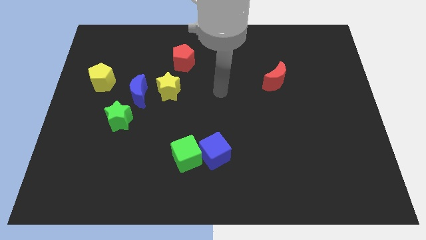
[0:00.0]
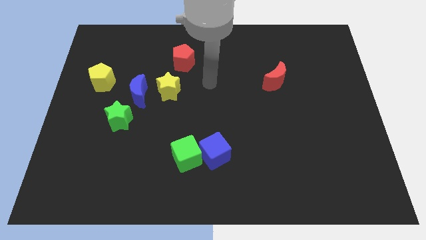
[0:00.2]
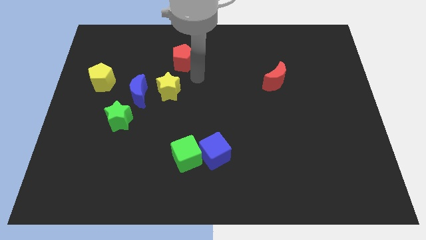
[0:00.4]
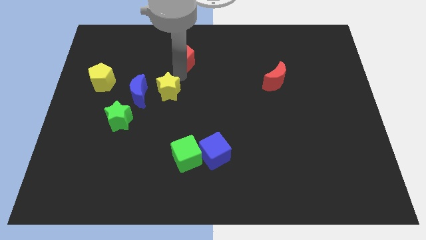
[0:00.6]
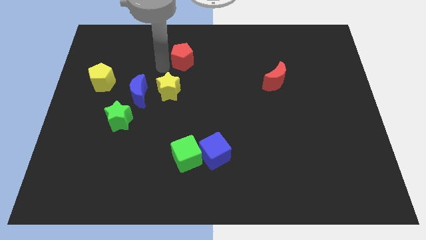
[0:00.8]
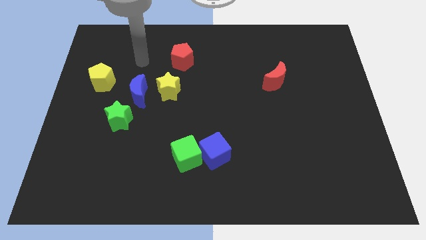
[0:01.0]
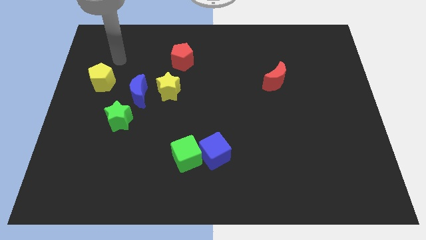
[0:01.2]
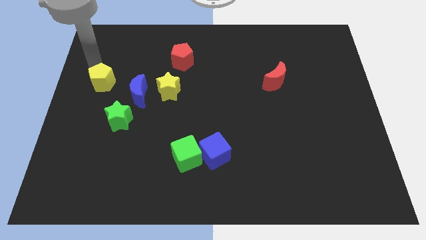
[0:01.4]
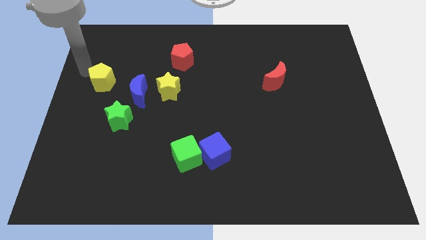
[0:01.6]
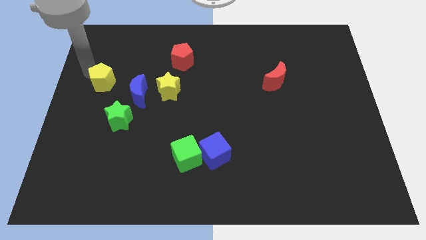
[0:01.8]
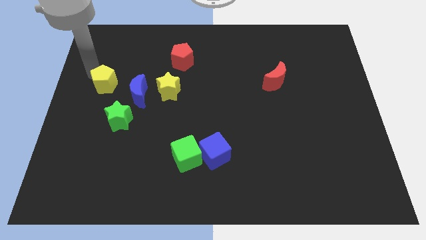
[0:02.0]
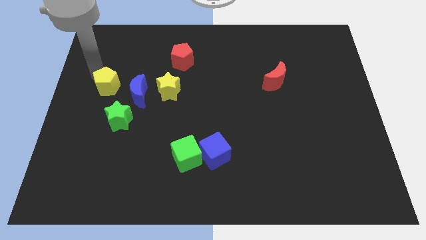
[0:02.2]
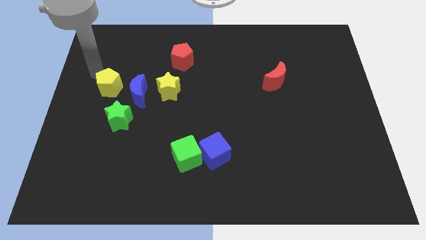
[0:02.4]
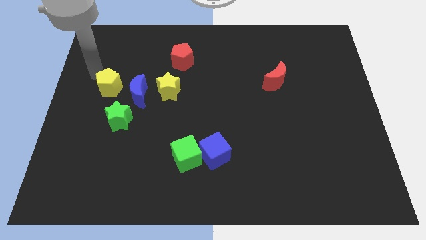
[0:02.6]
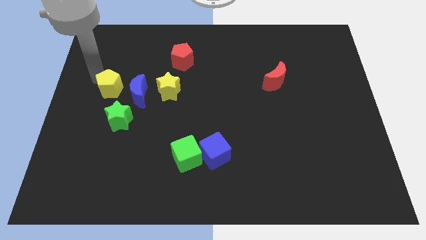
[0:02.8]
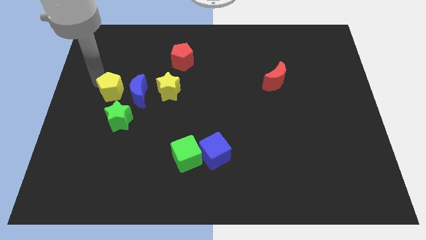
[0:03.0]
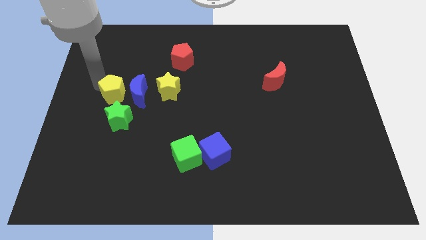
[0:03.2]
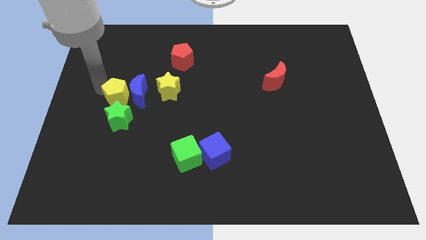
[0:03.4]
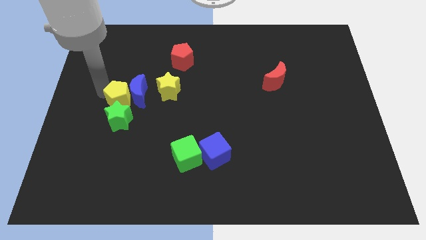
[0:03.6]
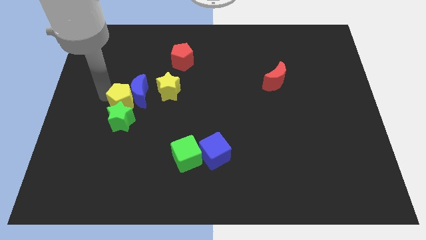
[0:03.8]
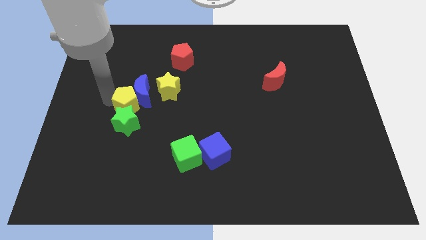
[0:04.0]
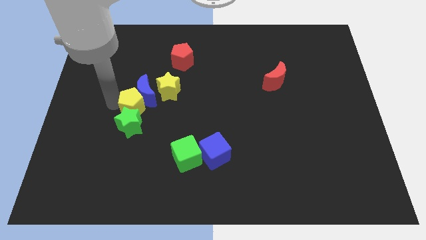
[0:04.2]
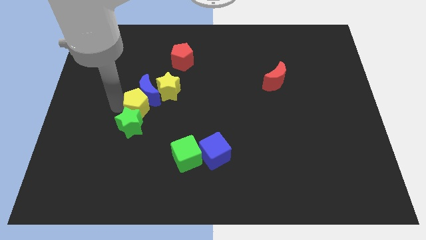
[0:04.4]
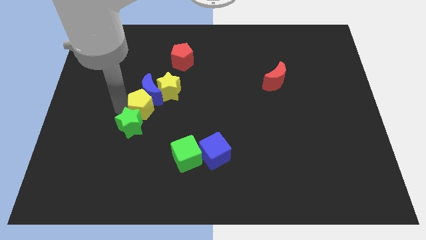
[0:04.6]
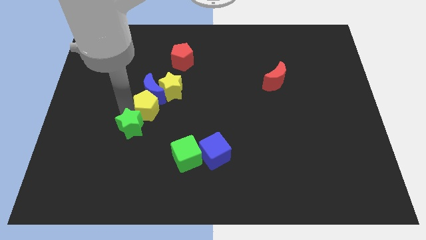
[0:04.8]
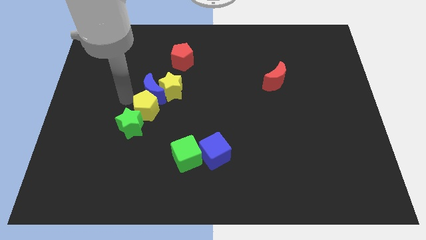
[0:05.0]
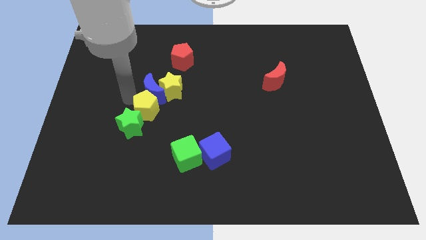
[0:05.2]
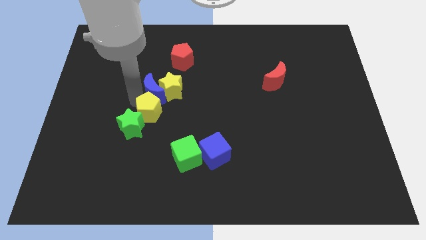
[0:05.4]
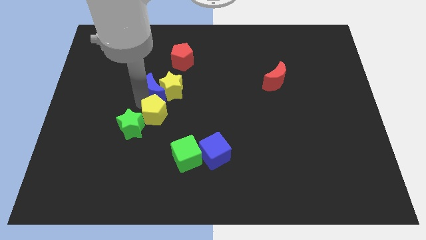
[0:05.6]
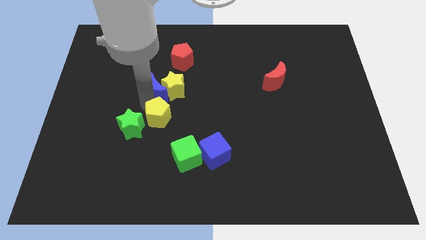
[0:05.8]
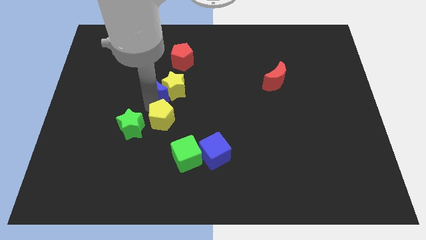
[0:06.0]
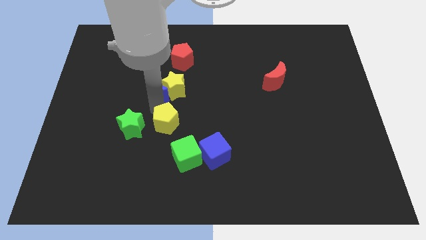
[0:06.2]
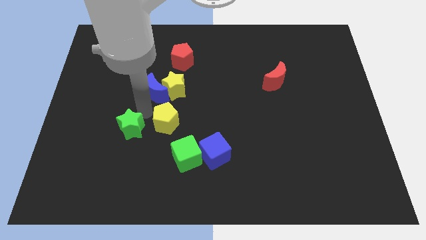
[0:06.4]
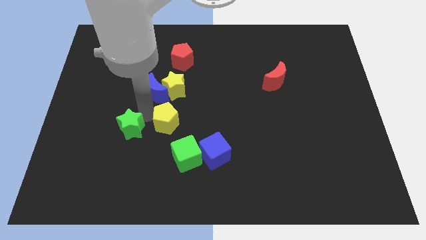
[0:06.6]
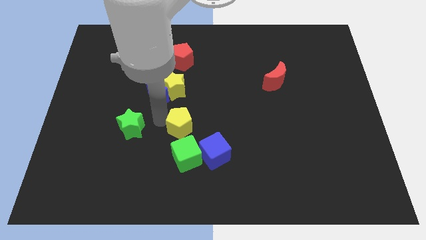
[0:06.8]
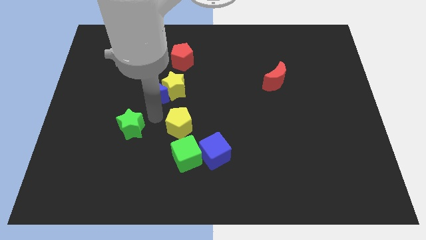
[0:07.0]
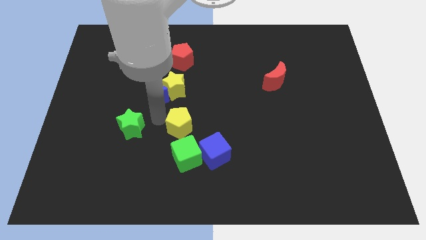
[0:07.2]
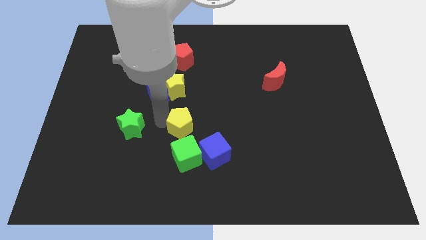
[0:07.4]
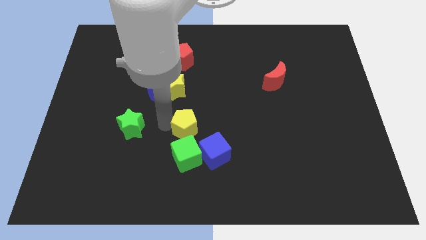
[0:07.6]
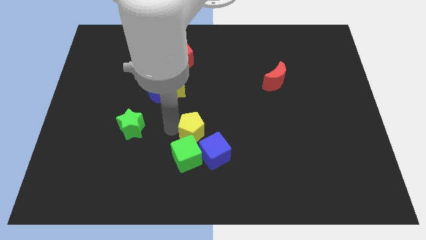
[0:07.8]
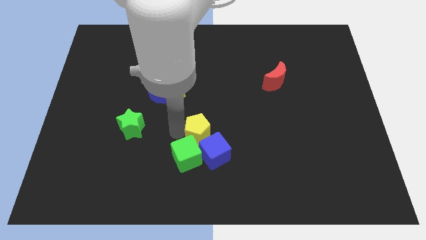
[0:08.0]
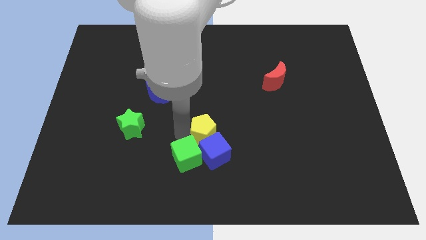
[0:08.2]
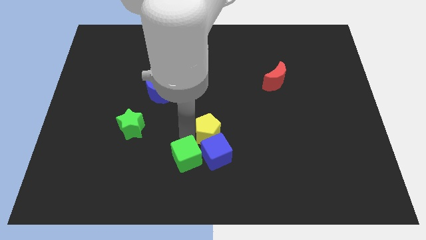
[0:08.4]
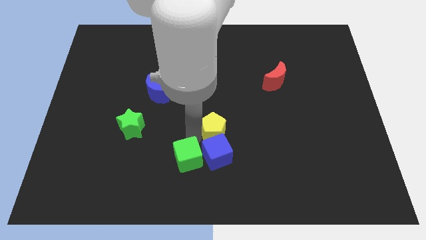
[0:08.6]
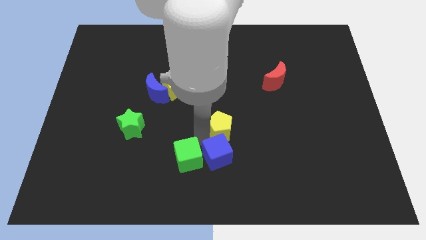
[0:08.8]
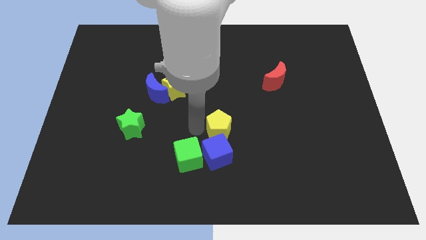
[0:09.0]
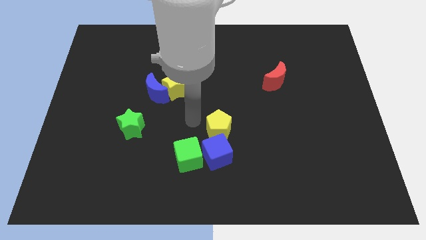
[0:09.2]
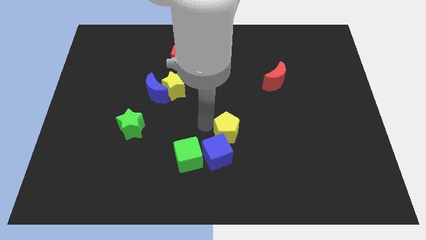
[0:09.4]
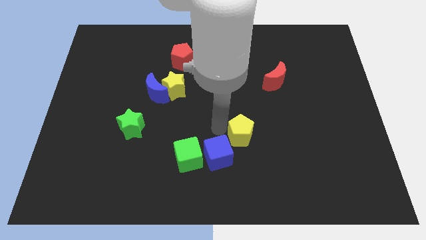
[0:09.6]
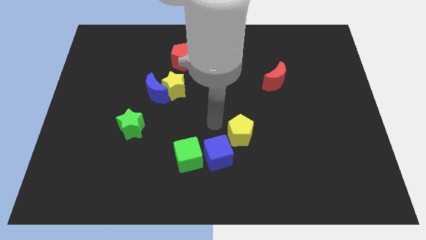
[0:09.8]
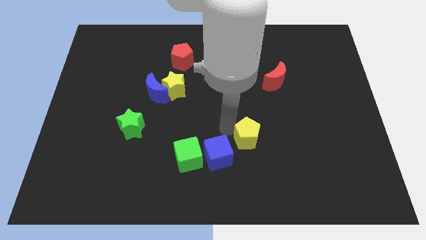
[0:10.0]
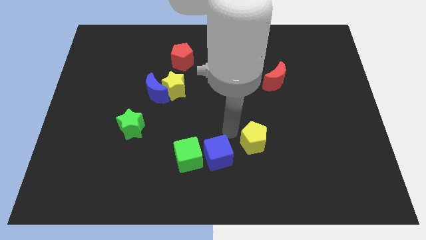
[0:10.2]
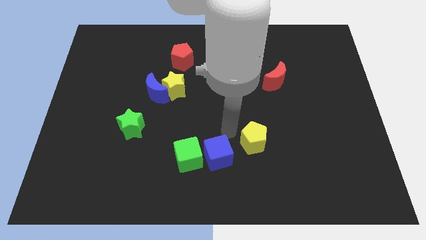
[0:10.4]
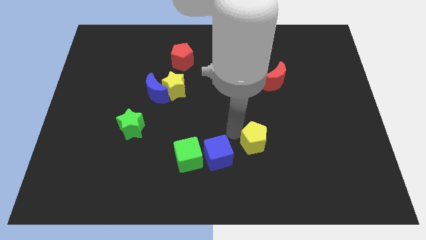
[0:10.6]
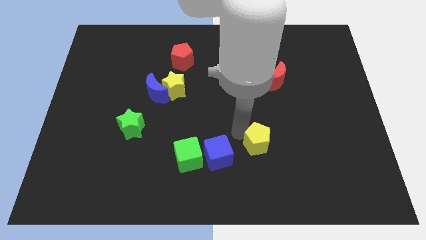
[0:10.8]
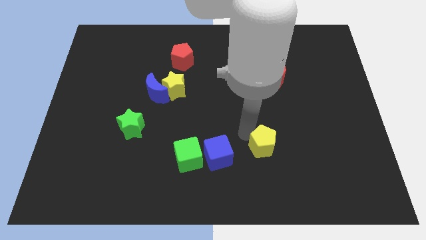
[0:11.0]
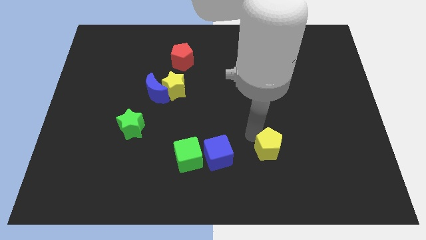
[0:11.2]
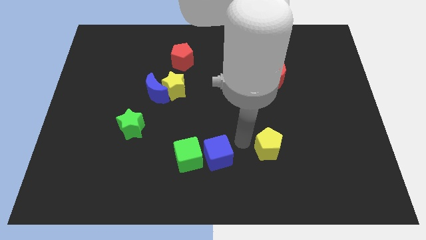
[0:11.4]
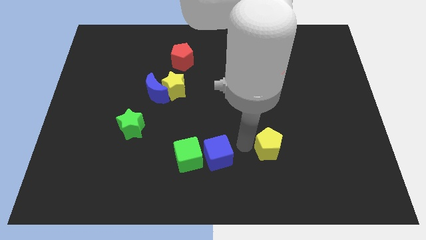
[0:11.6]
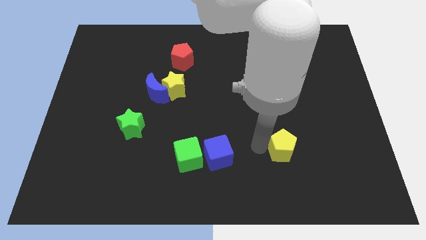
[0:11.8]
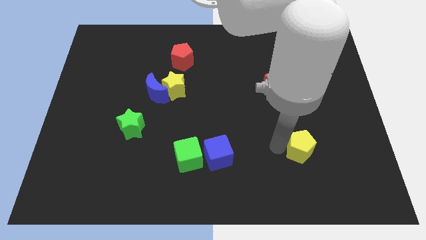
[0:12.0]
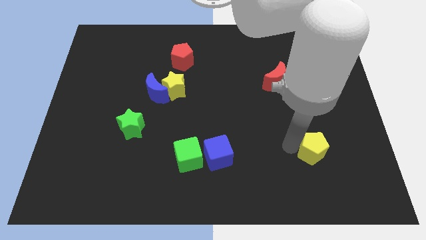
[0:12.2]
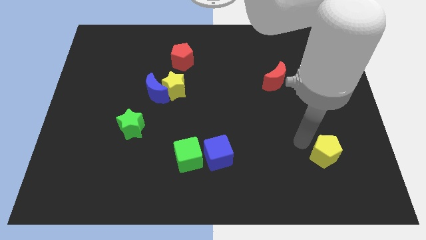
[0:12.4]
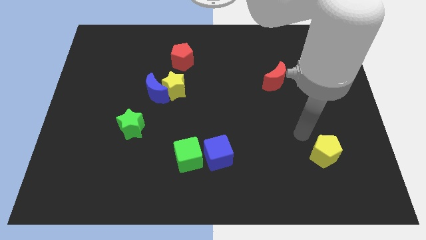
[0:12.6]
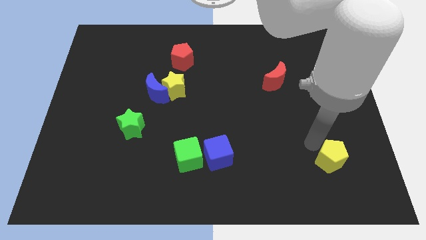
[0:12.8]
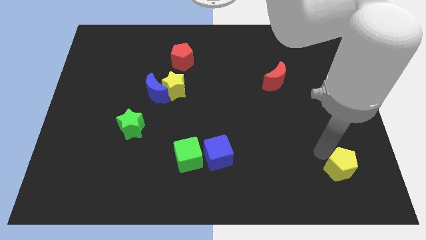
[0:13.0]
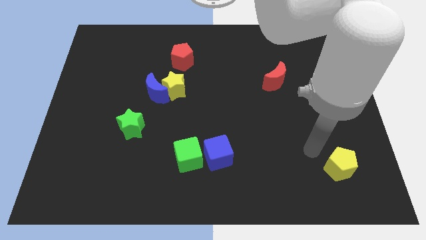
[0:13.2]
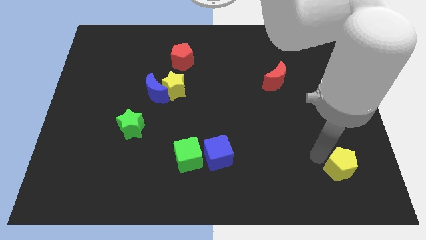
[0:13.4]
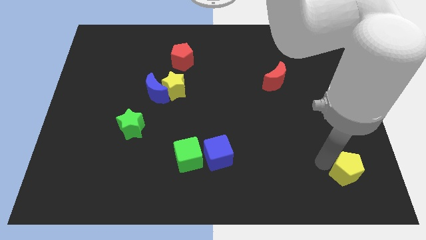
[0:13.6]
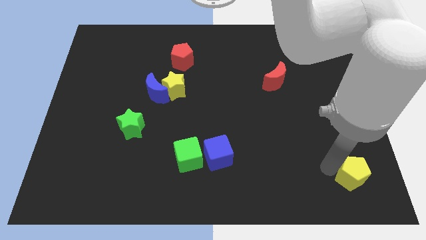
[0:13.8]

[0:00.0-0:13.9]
push the yellow pentagon to the bottom right corner

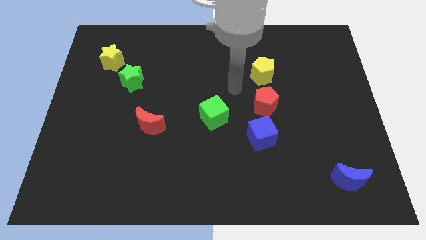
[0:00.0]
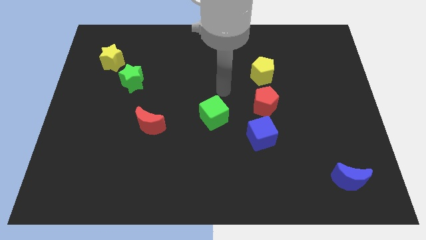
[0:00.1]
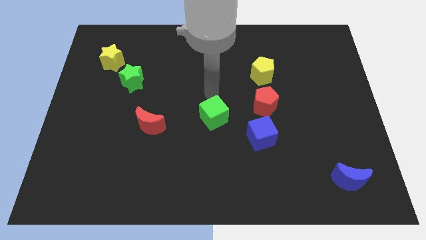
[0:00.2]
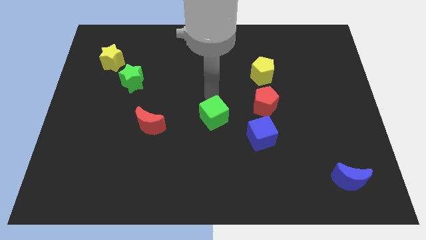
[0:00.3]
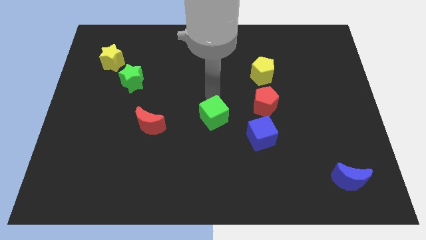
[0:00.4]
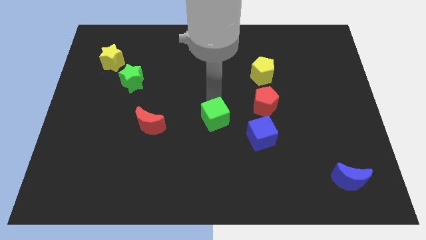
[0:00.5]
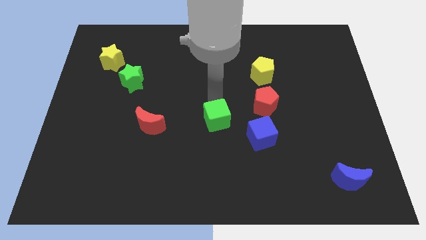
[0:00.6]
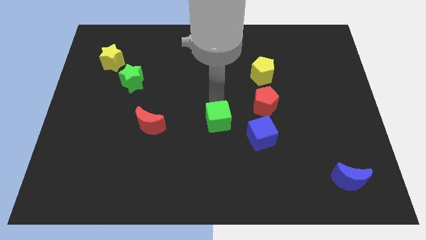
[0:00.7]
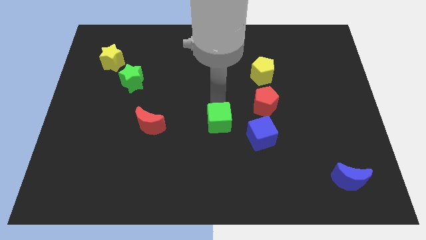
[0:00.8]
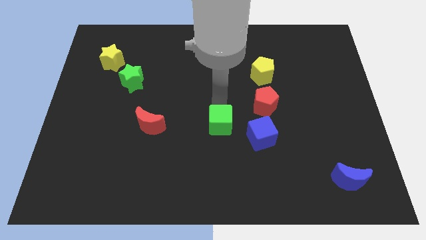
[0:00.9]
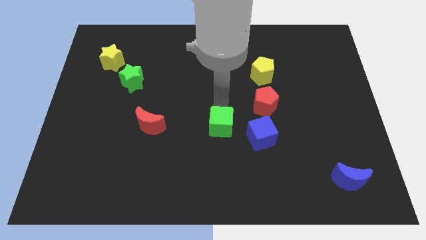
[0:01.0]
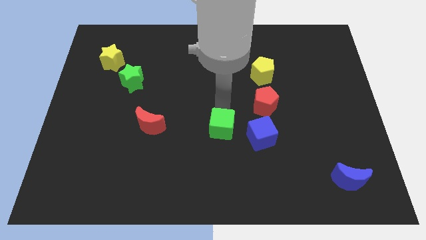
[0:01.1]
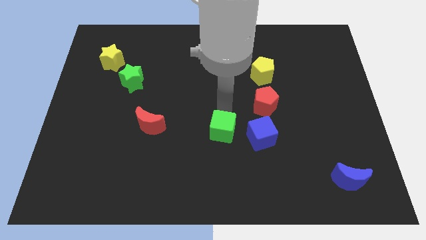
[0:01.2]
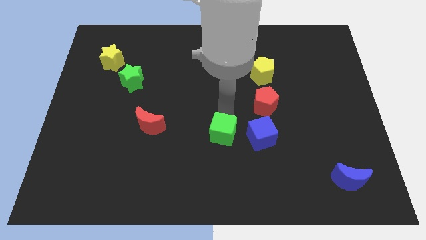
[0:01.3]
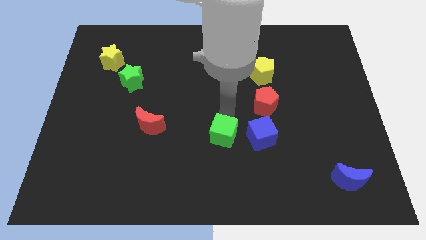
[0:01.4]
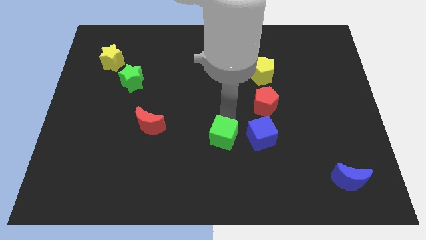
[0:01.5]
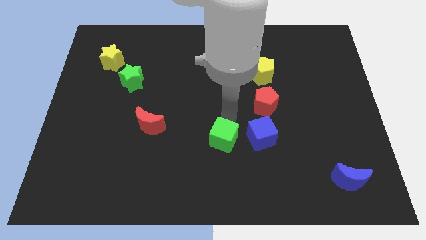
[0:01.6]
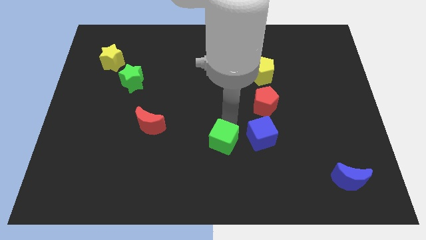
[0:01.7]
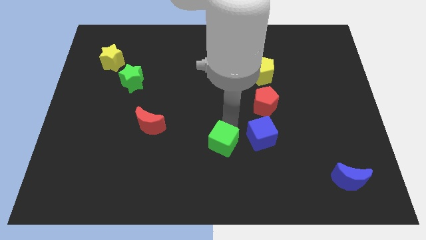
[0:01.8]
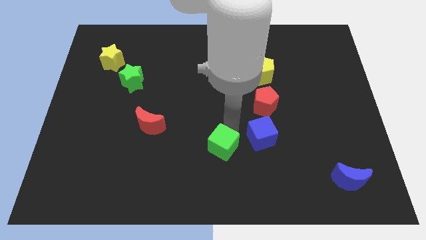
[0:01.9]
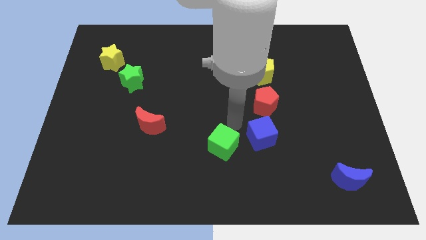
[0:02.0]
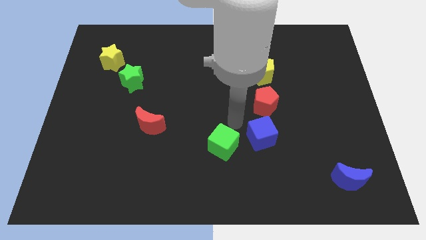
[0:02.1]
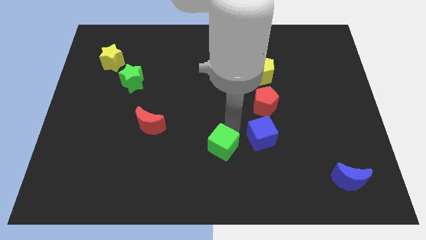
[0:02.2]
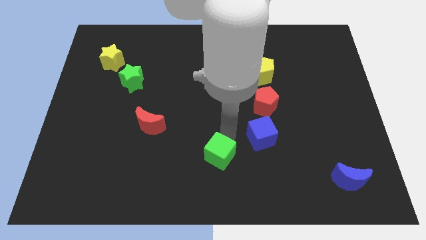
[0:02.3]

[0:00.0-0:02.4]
move the green cube to the bottom side
